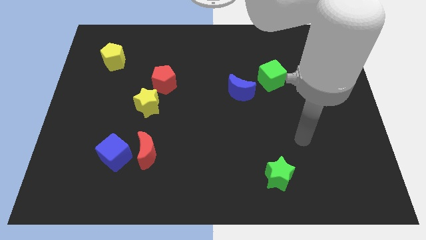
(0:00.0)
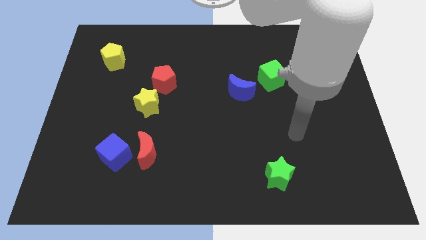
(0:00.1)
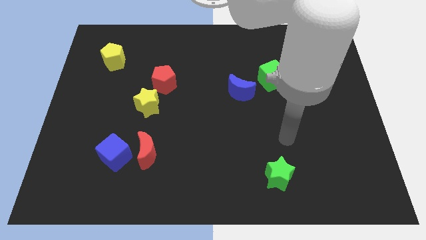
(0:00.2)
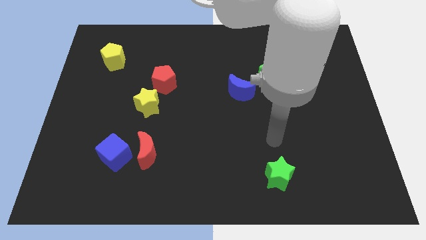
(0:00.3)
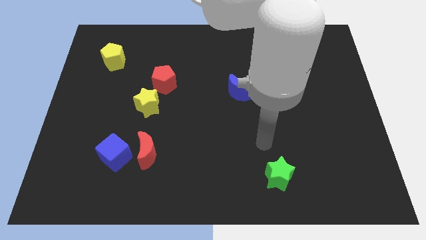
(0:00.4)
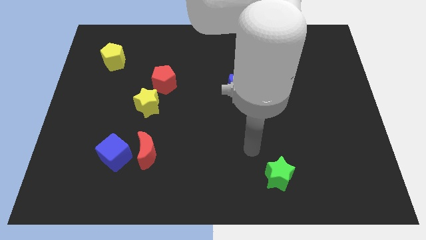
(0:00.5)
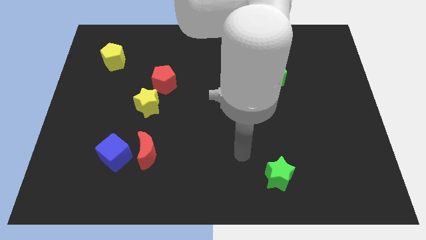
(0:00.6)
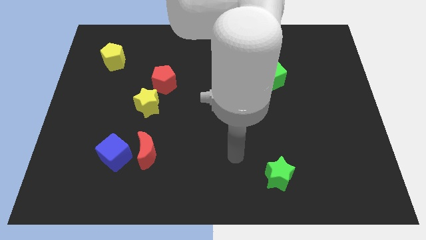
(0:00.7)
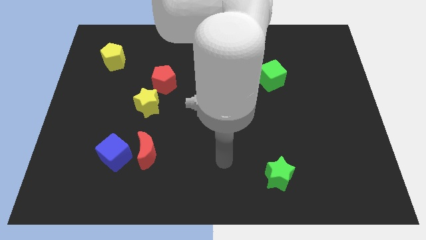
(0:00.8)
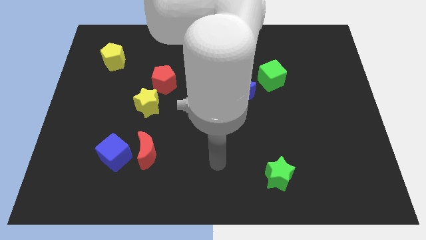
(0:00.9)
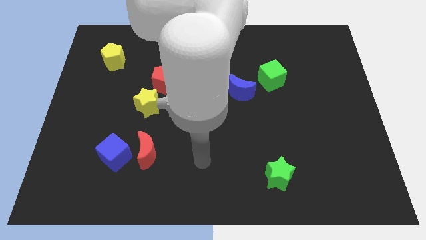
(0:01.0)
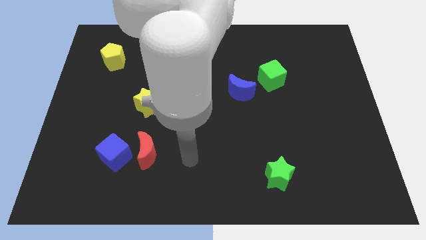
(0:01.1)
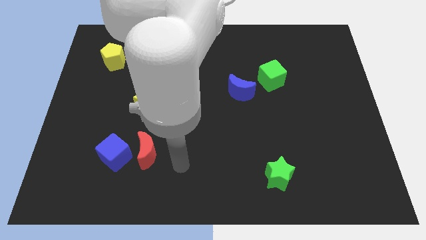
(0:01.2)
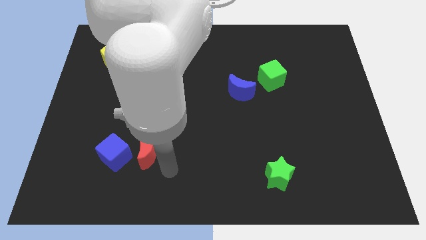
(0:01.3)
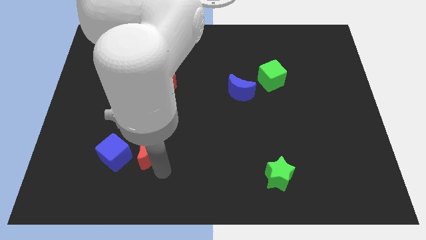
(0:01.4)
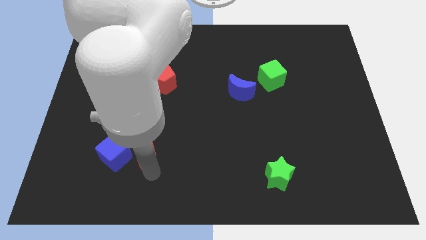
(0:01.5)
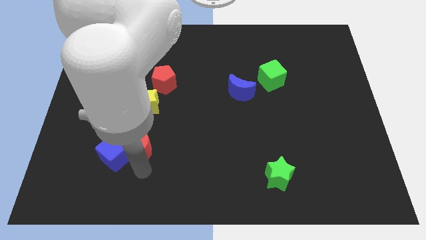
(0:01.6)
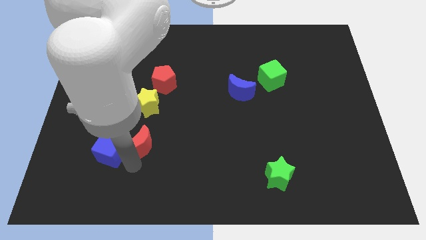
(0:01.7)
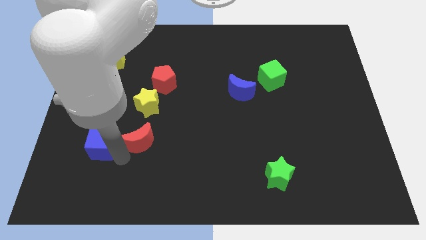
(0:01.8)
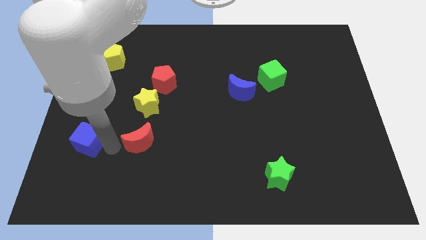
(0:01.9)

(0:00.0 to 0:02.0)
separate the red moon from the blue cube

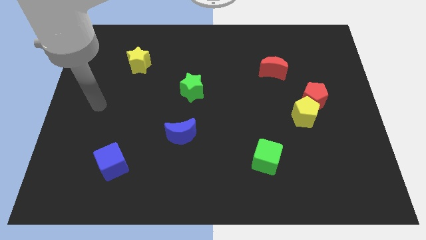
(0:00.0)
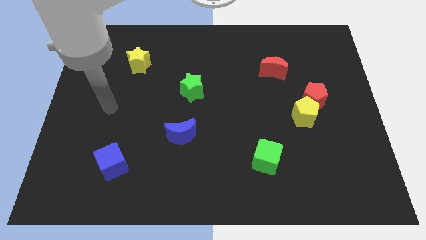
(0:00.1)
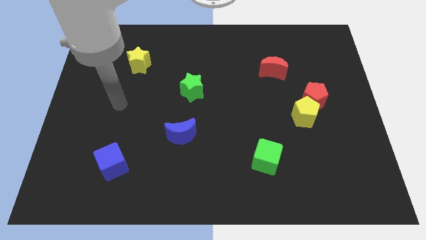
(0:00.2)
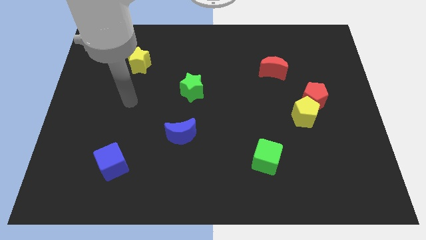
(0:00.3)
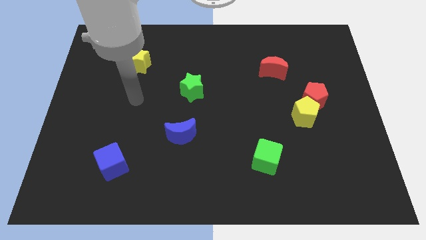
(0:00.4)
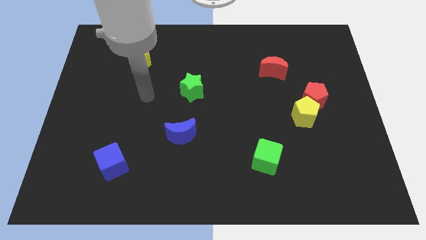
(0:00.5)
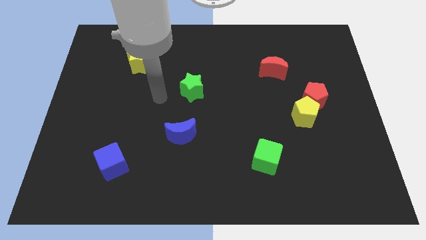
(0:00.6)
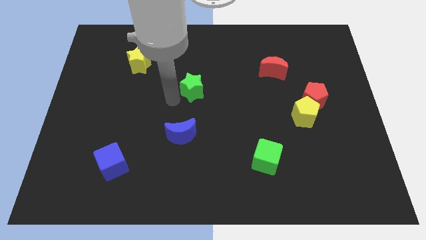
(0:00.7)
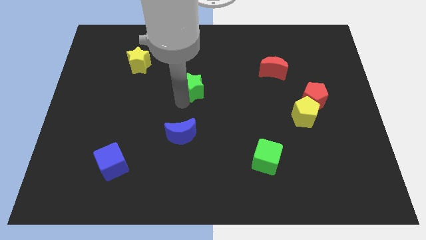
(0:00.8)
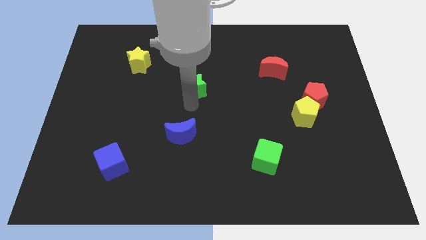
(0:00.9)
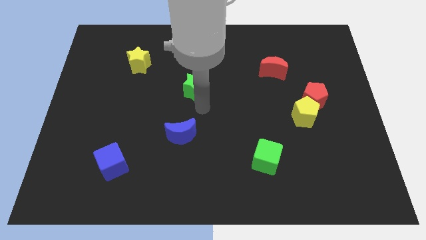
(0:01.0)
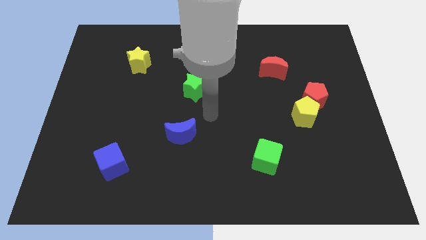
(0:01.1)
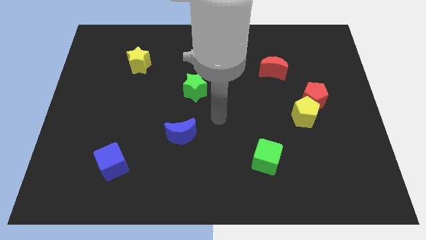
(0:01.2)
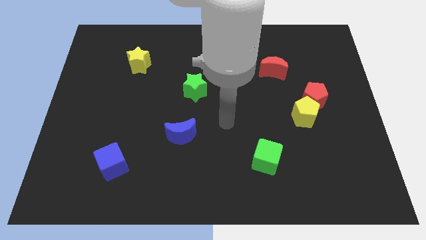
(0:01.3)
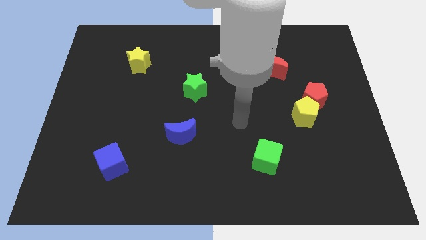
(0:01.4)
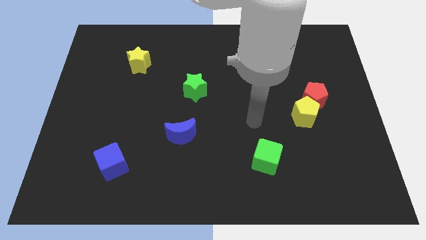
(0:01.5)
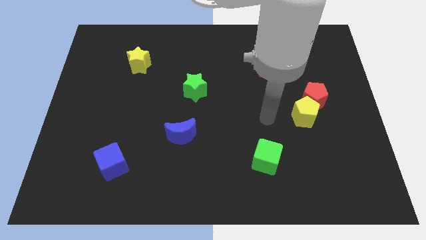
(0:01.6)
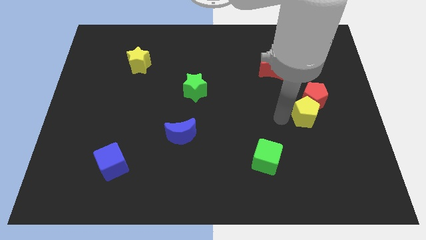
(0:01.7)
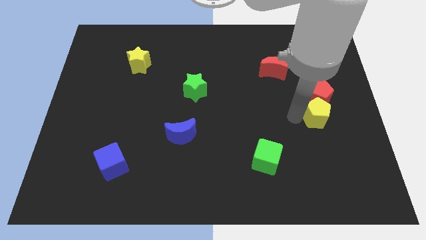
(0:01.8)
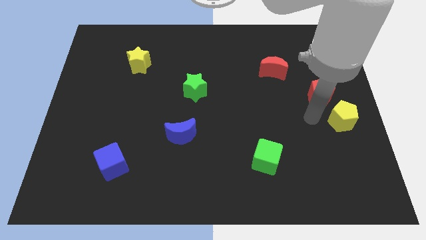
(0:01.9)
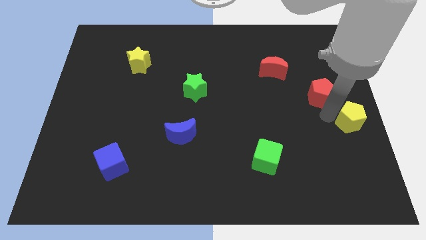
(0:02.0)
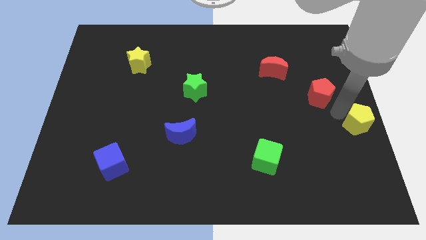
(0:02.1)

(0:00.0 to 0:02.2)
separate the red pentagon from the yellow pentagon

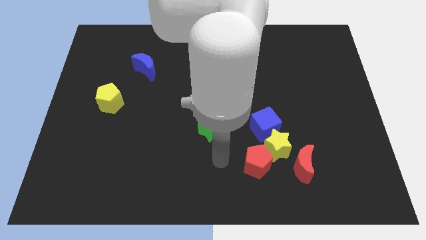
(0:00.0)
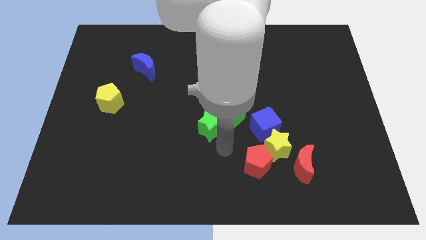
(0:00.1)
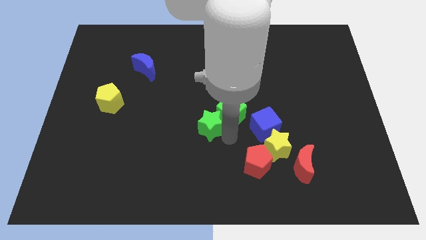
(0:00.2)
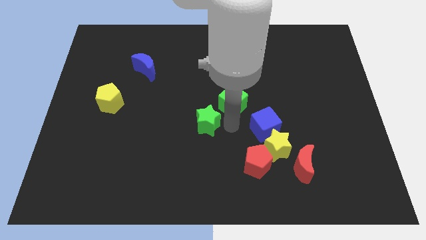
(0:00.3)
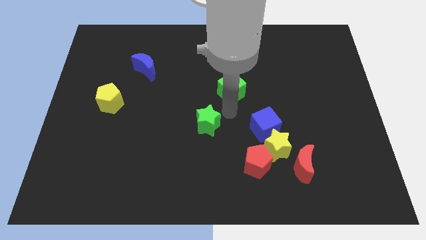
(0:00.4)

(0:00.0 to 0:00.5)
separate the green star from the green cube

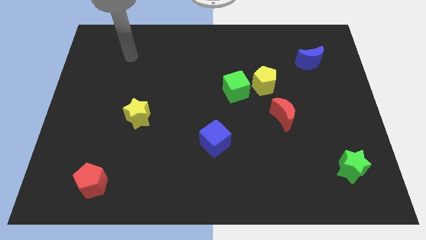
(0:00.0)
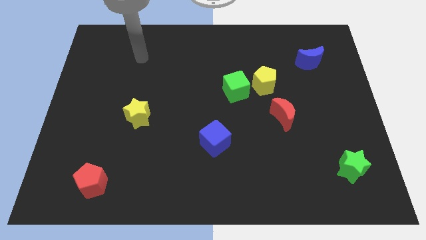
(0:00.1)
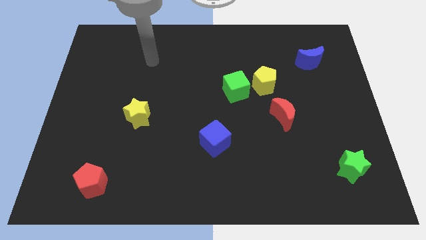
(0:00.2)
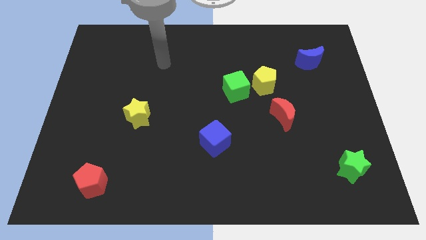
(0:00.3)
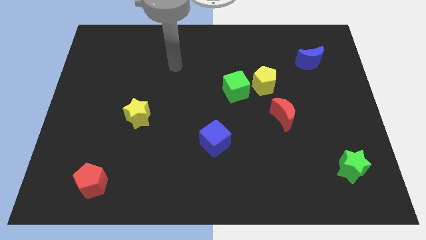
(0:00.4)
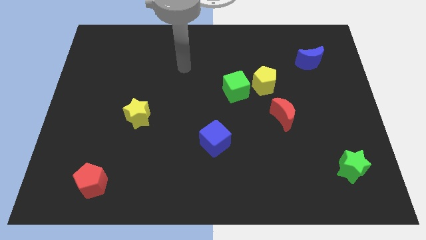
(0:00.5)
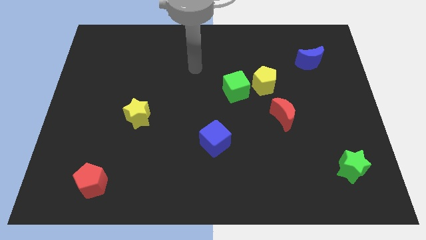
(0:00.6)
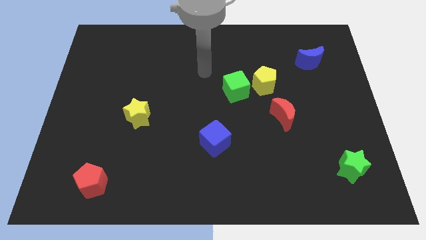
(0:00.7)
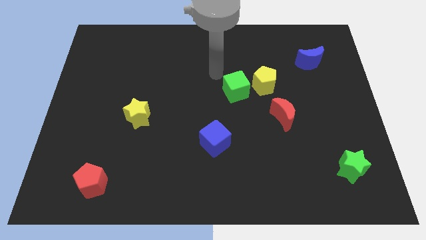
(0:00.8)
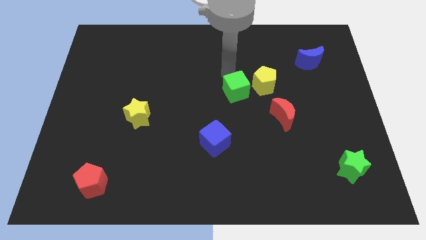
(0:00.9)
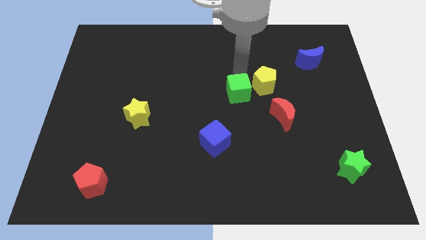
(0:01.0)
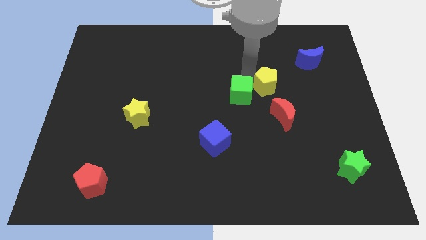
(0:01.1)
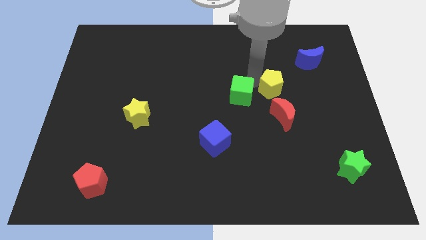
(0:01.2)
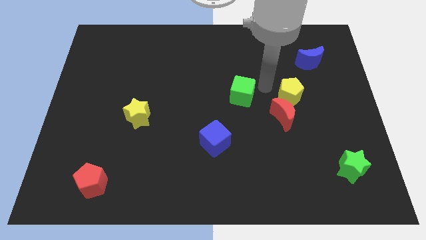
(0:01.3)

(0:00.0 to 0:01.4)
separate the green cube from the yellow pentagon

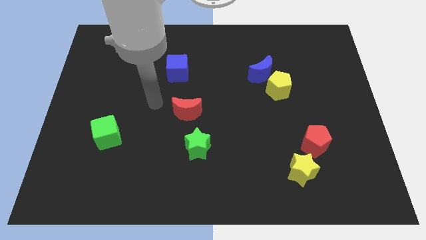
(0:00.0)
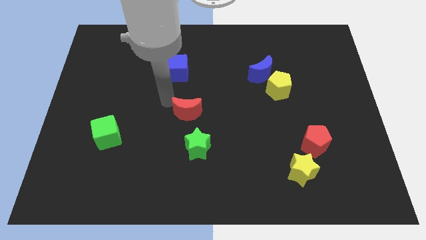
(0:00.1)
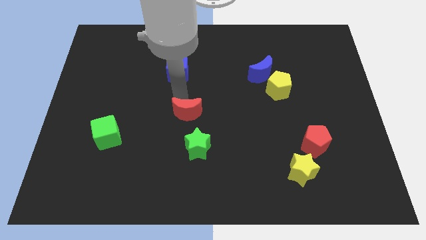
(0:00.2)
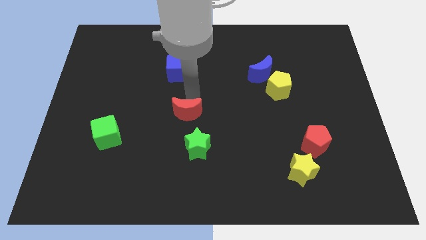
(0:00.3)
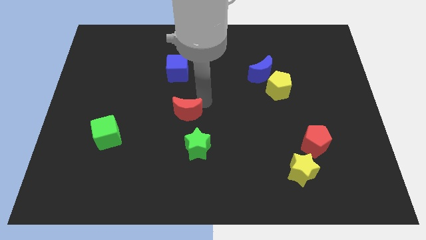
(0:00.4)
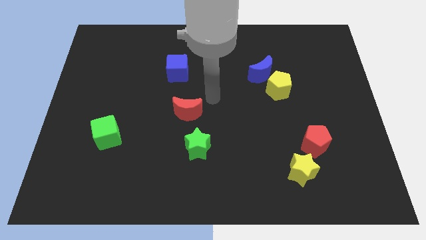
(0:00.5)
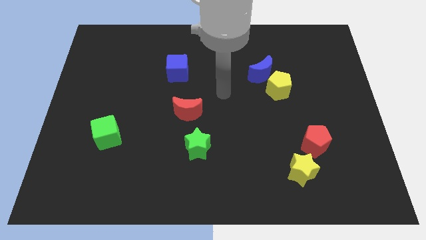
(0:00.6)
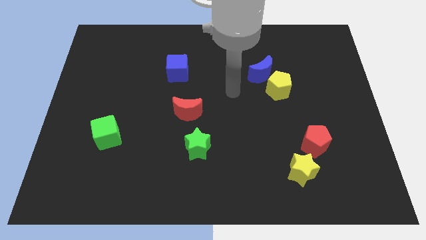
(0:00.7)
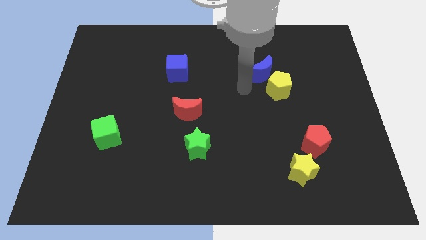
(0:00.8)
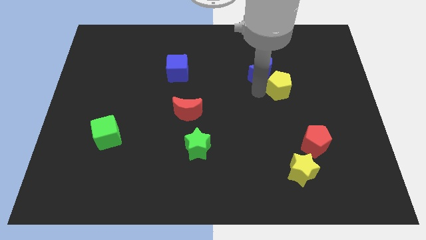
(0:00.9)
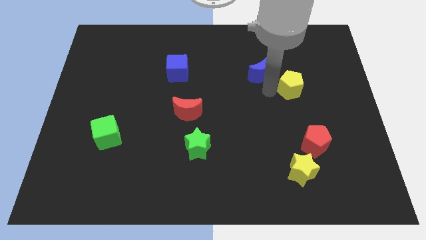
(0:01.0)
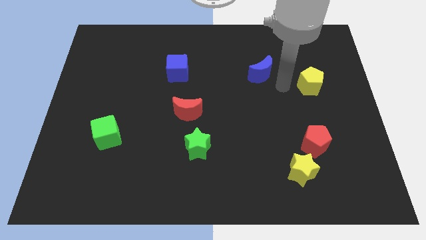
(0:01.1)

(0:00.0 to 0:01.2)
separate the blue moon from the yellow pentagon

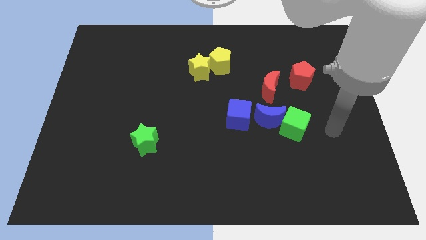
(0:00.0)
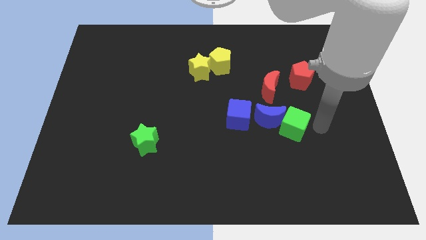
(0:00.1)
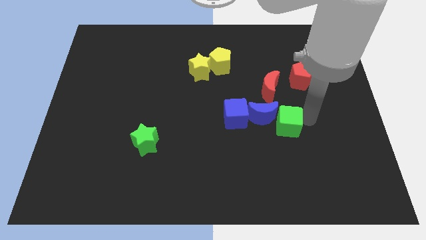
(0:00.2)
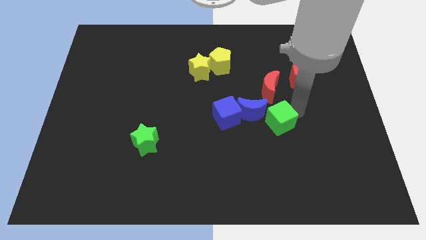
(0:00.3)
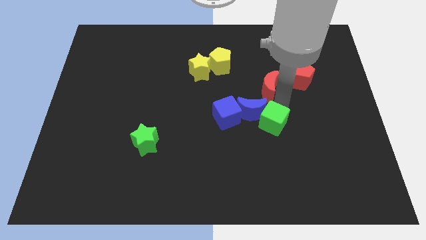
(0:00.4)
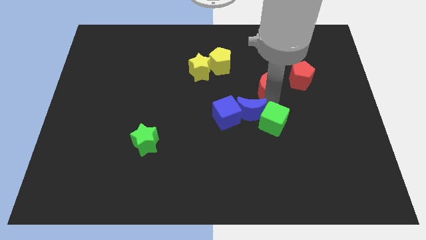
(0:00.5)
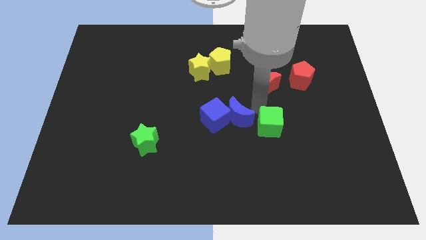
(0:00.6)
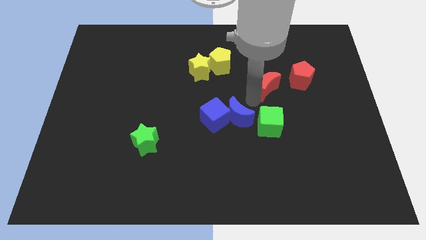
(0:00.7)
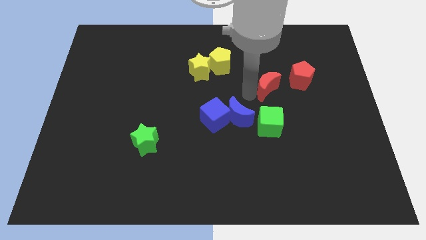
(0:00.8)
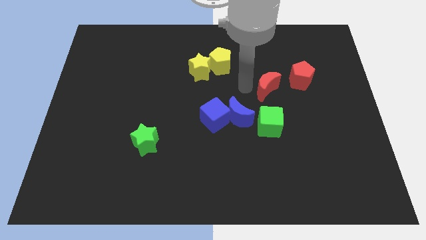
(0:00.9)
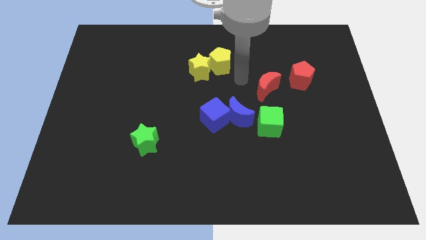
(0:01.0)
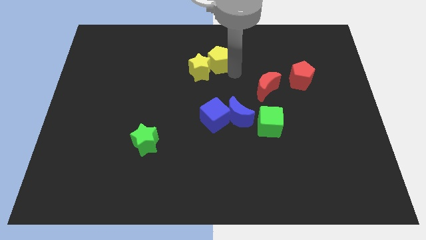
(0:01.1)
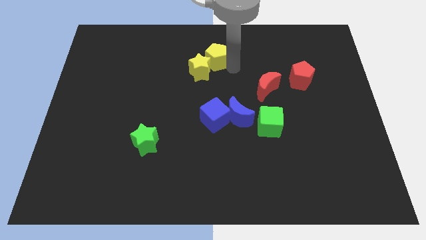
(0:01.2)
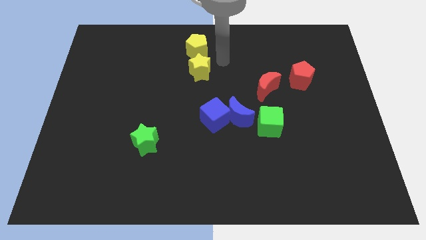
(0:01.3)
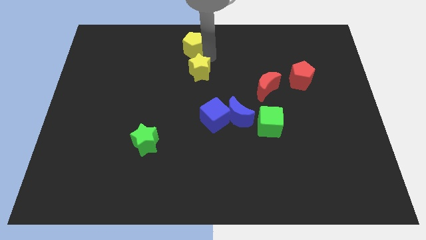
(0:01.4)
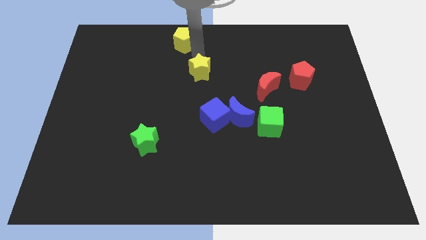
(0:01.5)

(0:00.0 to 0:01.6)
separate the yellow star from the yellow pentagon

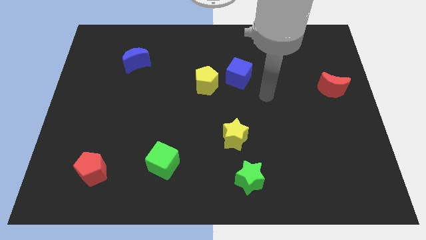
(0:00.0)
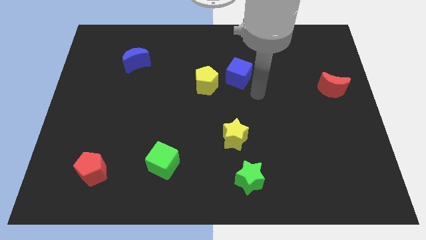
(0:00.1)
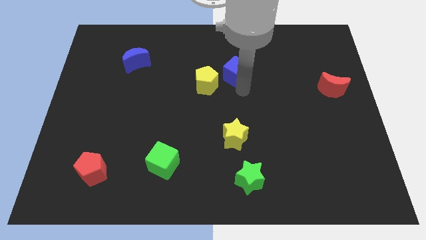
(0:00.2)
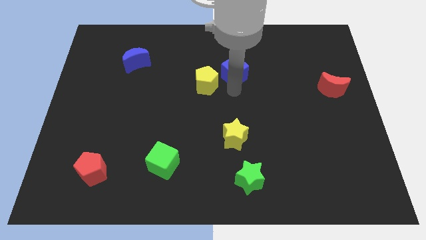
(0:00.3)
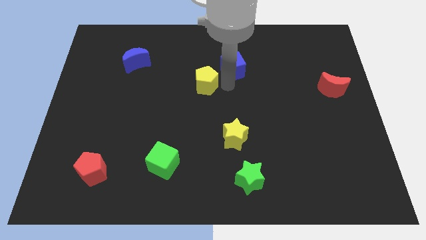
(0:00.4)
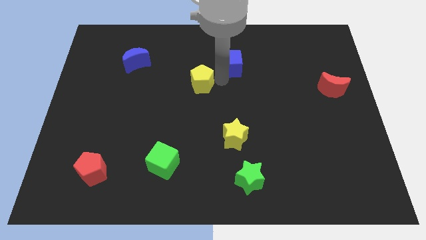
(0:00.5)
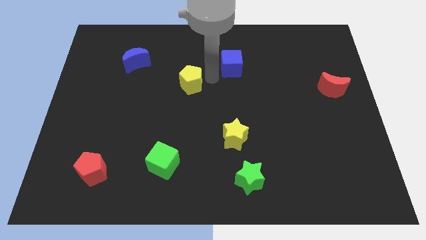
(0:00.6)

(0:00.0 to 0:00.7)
pull the blue cube apart from the yellow pentagon
